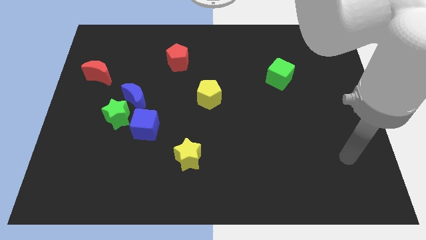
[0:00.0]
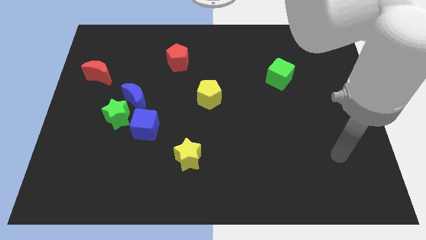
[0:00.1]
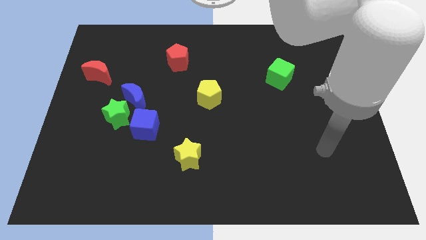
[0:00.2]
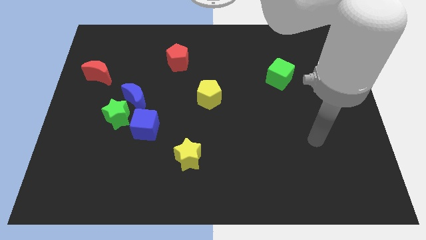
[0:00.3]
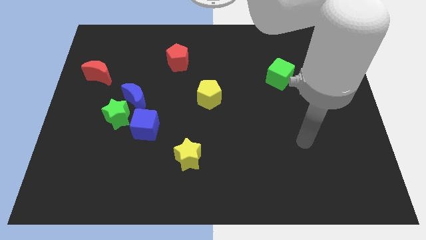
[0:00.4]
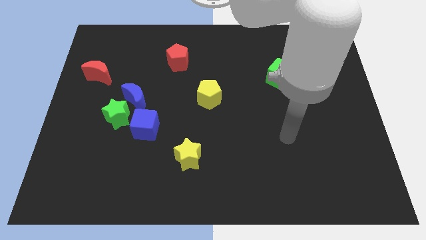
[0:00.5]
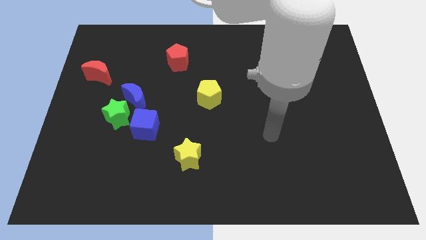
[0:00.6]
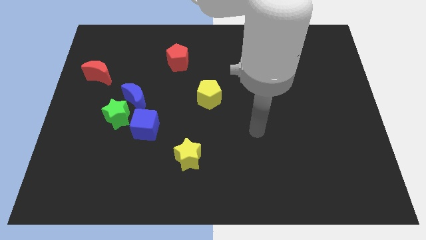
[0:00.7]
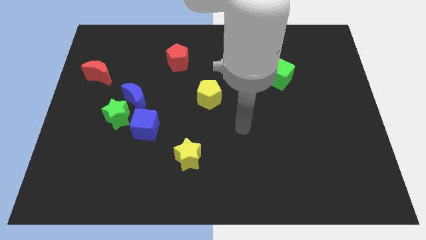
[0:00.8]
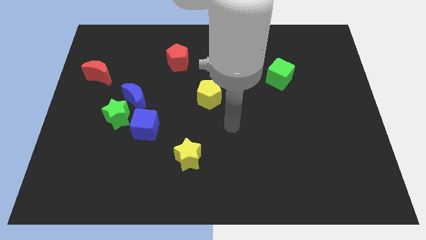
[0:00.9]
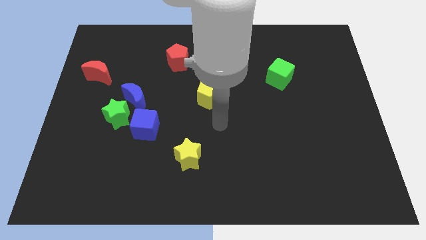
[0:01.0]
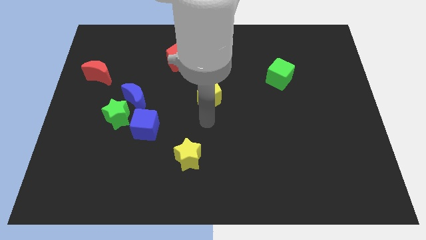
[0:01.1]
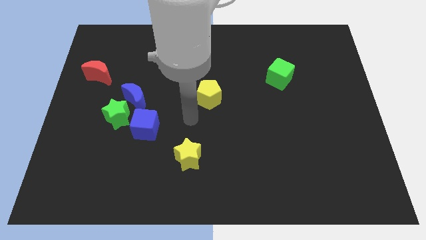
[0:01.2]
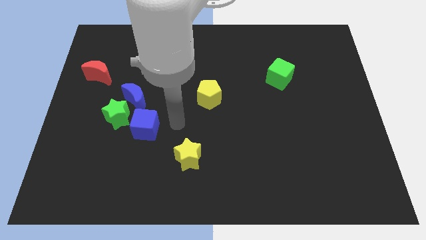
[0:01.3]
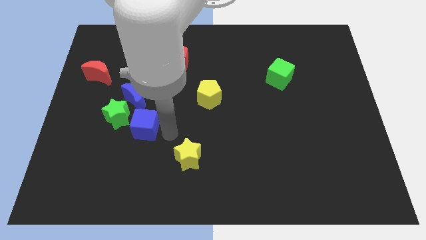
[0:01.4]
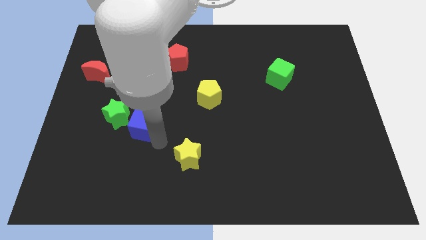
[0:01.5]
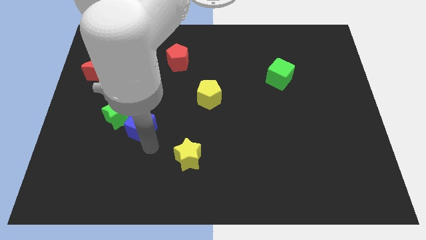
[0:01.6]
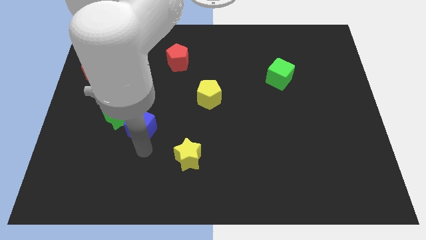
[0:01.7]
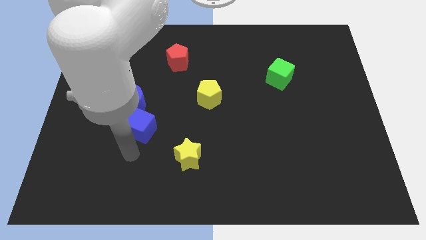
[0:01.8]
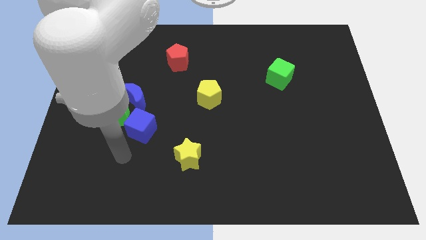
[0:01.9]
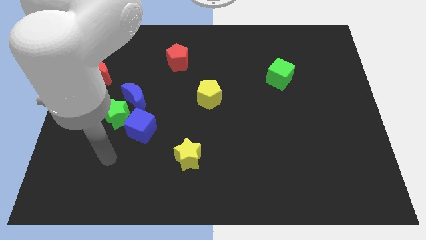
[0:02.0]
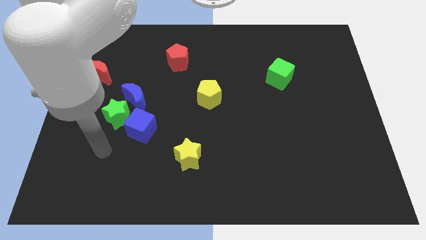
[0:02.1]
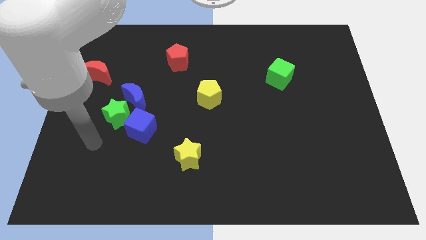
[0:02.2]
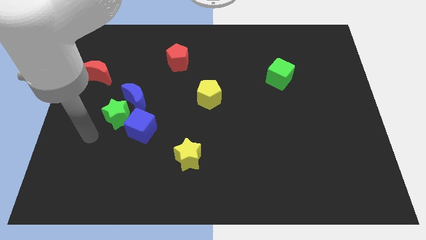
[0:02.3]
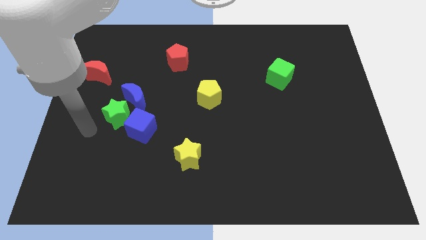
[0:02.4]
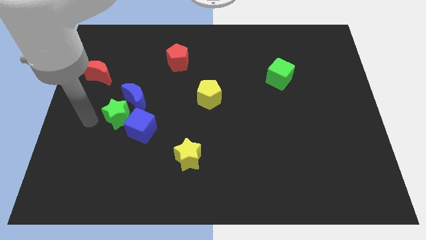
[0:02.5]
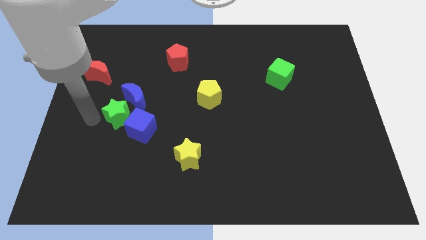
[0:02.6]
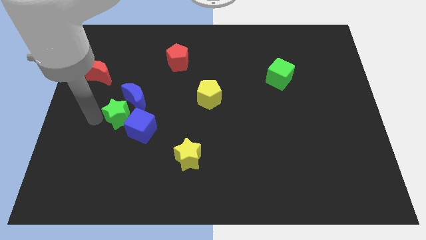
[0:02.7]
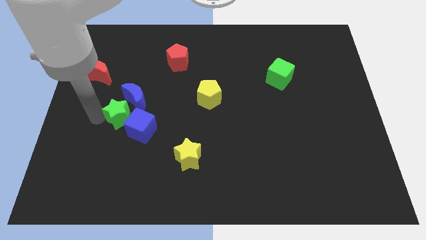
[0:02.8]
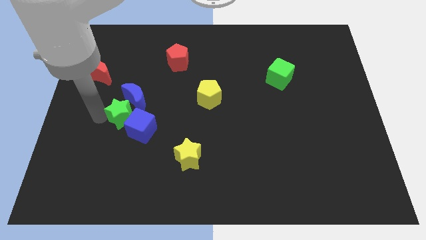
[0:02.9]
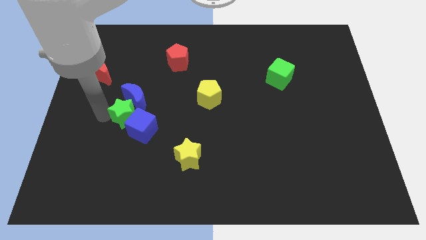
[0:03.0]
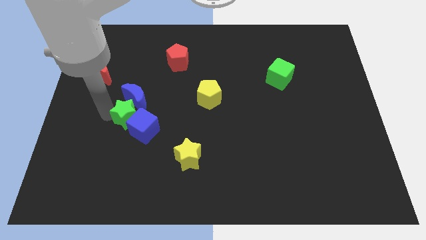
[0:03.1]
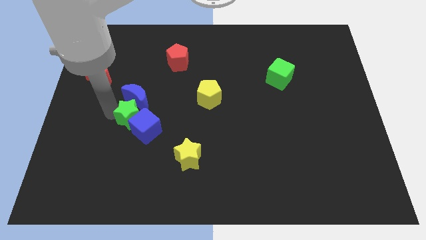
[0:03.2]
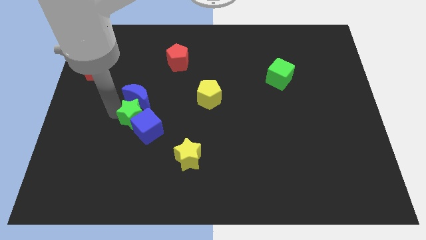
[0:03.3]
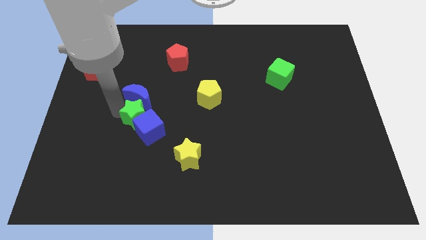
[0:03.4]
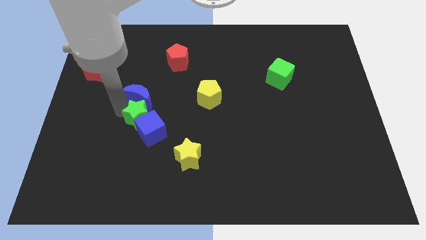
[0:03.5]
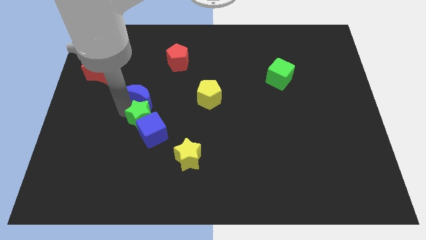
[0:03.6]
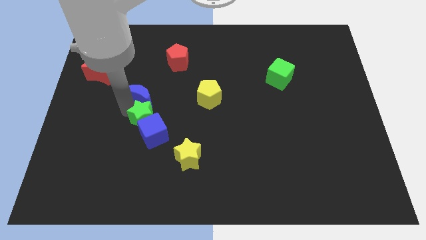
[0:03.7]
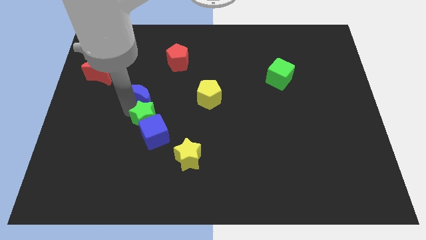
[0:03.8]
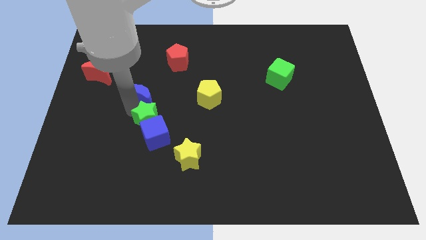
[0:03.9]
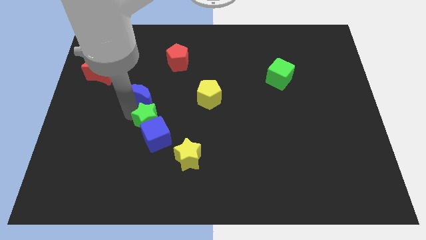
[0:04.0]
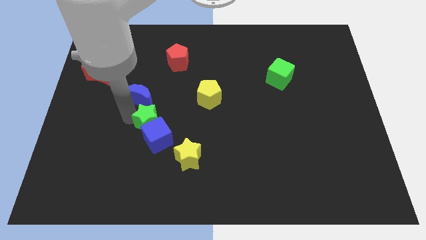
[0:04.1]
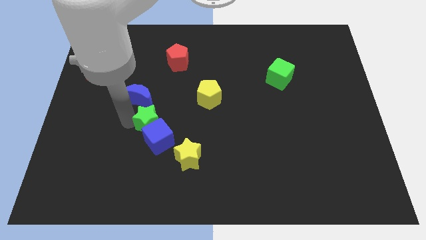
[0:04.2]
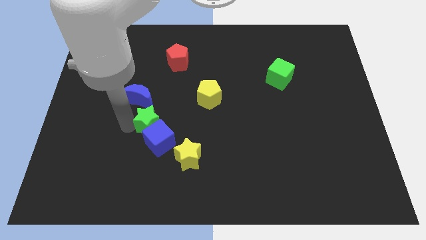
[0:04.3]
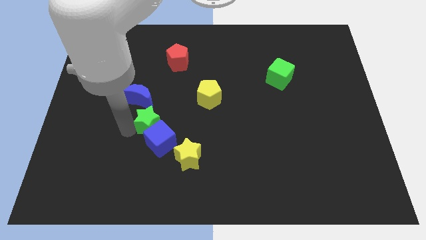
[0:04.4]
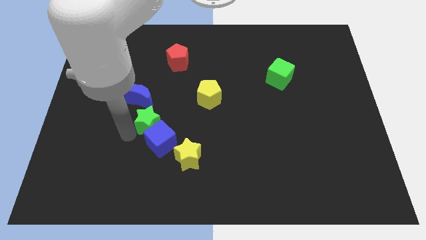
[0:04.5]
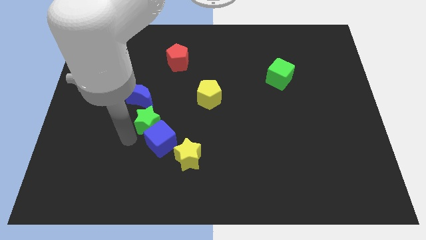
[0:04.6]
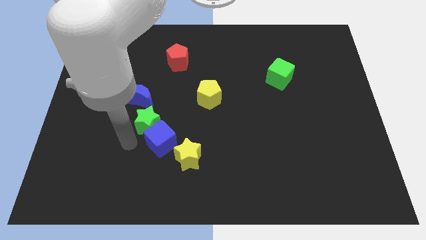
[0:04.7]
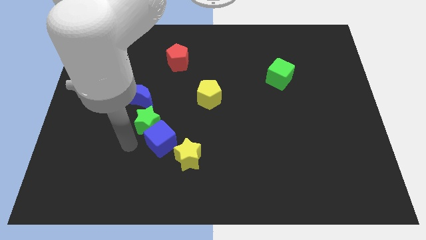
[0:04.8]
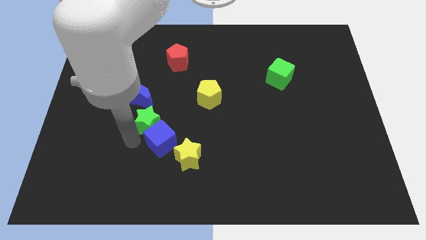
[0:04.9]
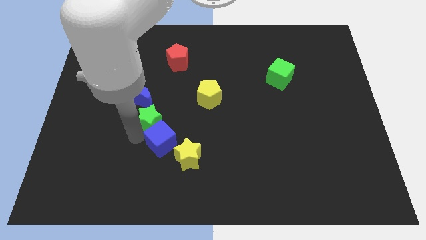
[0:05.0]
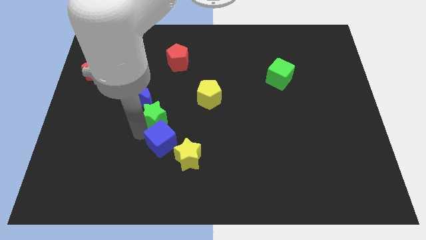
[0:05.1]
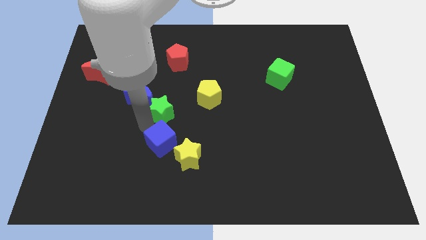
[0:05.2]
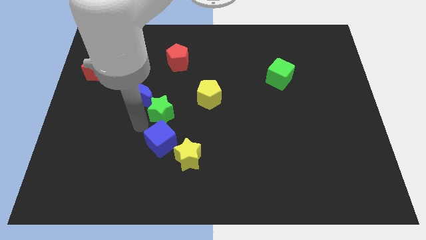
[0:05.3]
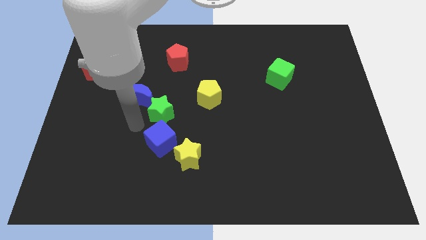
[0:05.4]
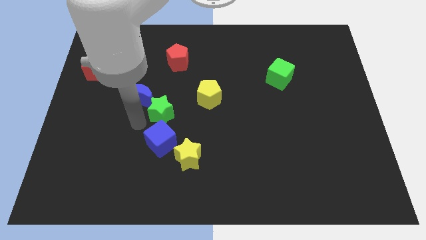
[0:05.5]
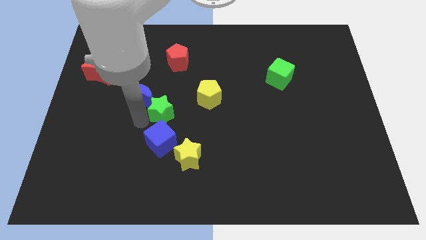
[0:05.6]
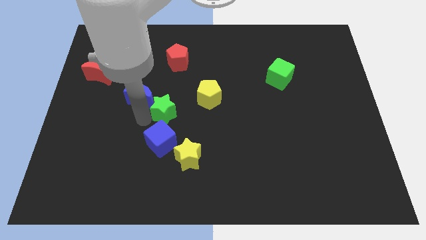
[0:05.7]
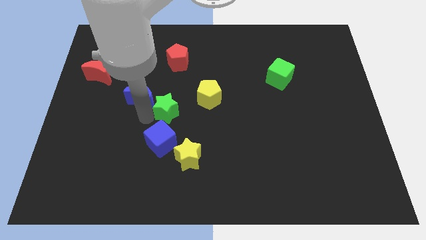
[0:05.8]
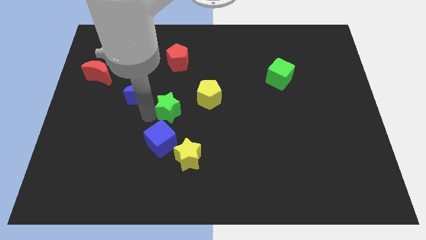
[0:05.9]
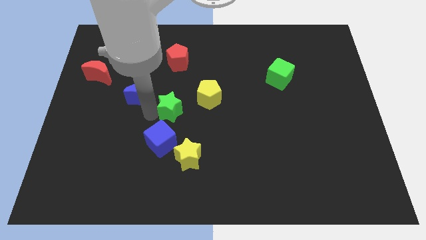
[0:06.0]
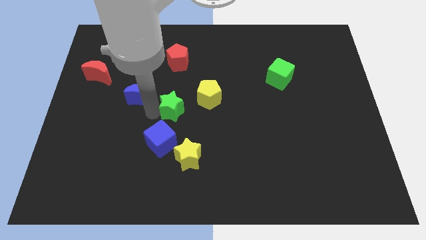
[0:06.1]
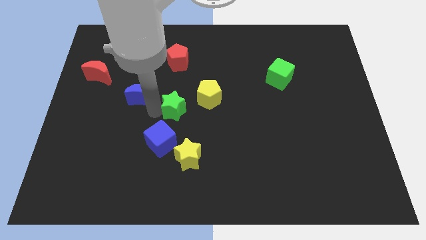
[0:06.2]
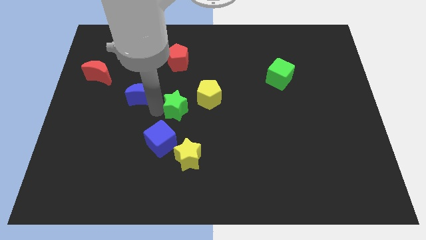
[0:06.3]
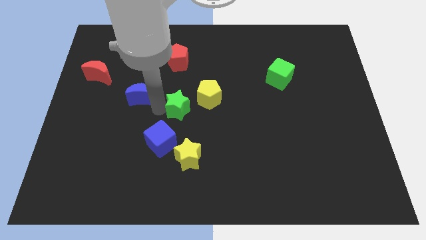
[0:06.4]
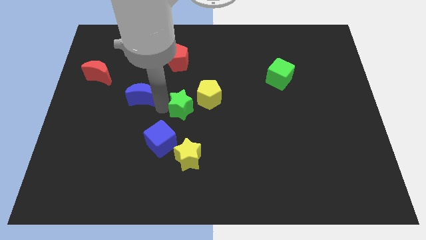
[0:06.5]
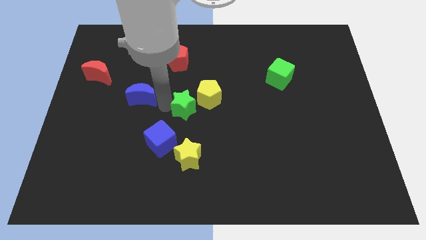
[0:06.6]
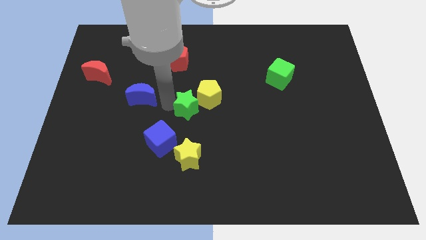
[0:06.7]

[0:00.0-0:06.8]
move the green star towards the yellow pentagon

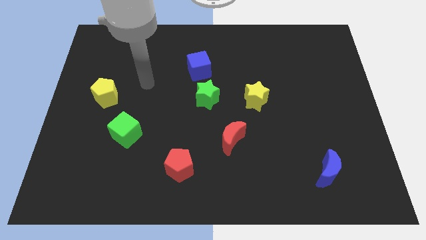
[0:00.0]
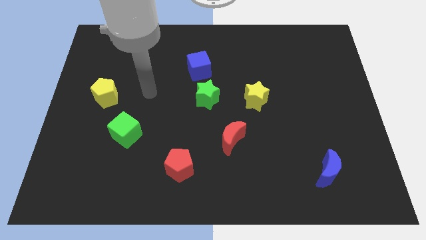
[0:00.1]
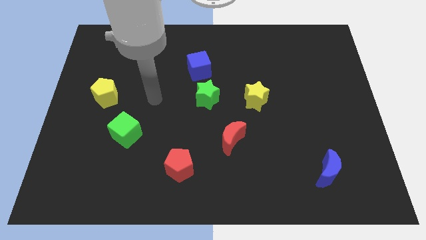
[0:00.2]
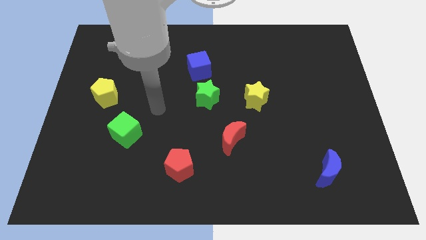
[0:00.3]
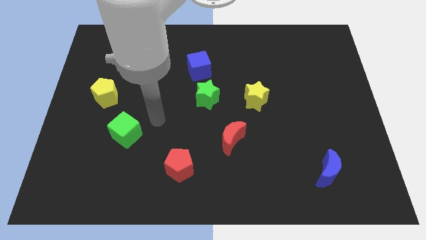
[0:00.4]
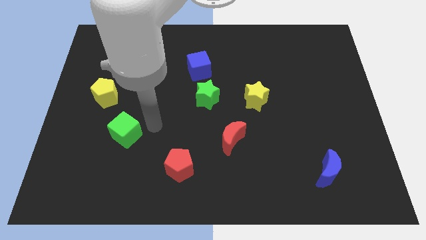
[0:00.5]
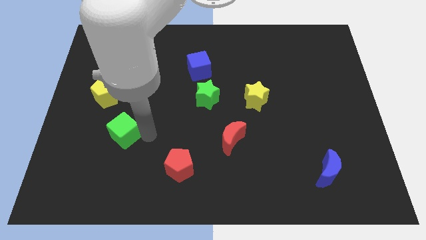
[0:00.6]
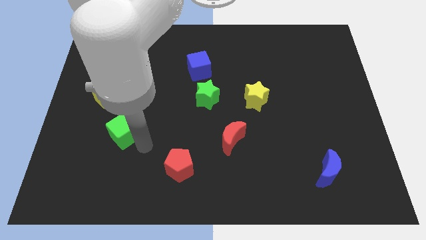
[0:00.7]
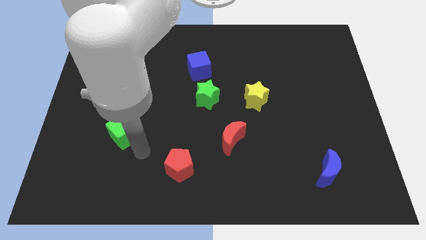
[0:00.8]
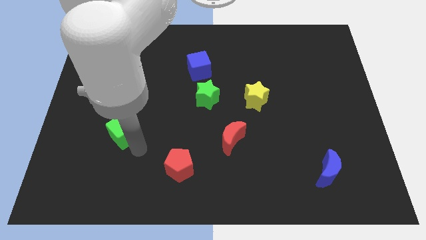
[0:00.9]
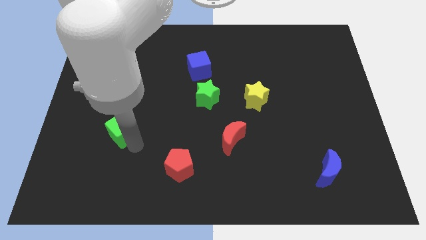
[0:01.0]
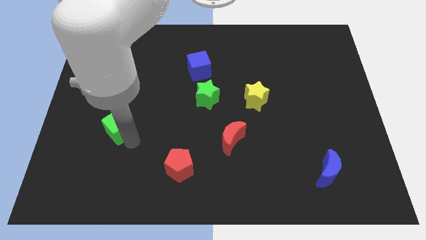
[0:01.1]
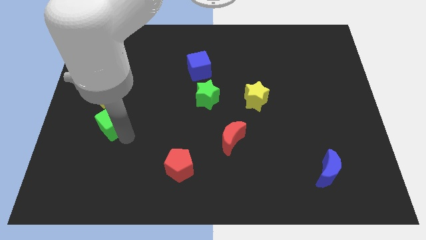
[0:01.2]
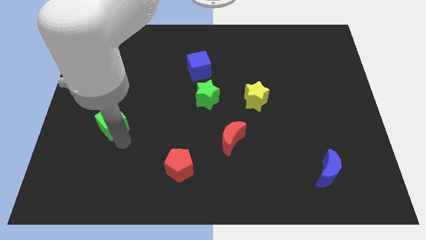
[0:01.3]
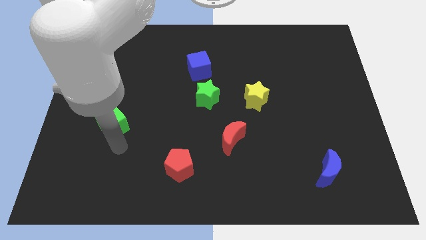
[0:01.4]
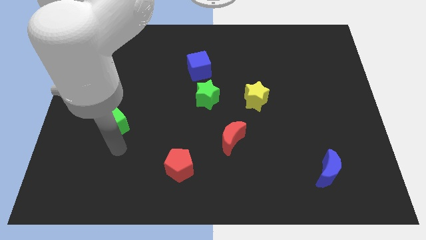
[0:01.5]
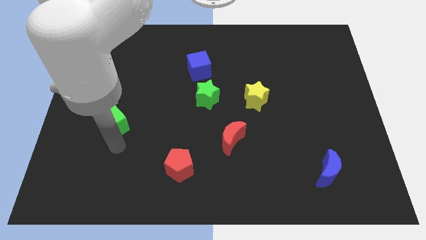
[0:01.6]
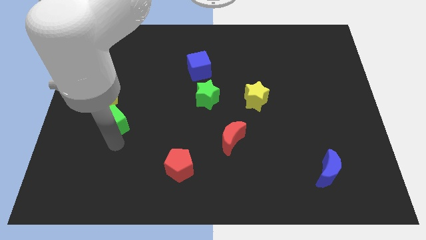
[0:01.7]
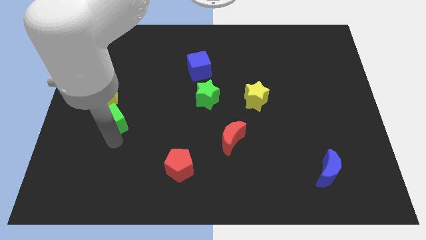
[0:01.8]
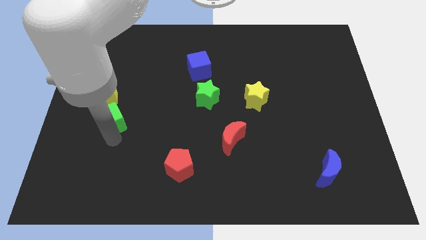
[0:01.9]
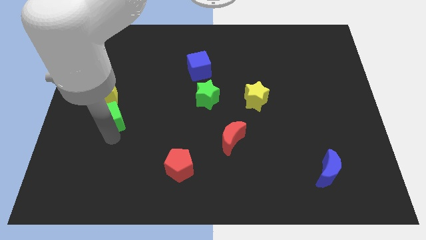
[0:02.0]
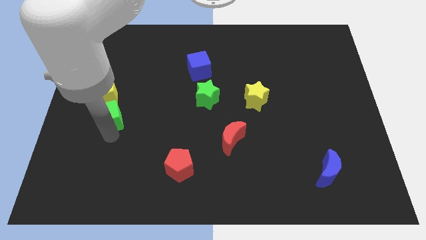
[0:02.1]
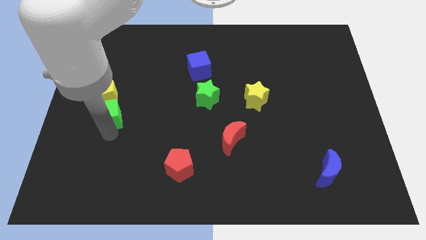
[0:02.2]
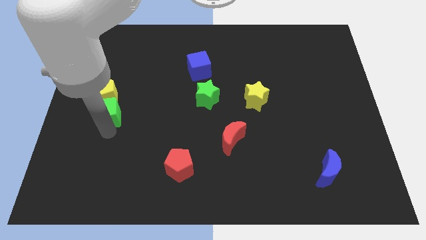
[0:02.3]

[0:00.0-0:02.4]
move the green cube to the yellow pentagon
